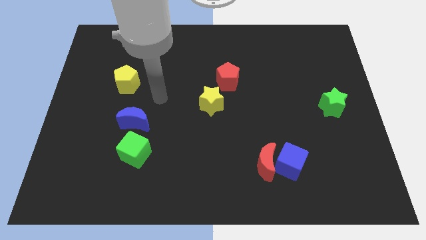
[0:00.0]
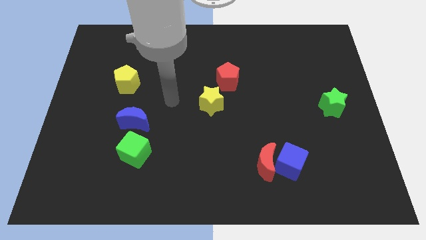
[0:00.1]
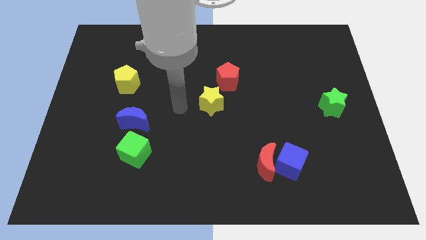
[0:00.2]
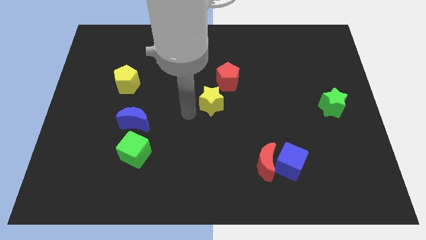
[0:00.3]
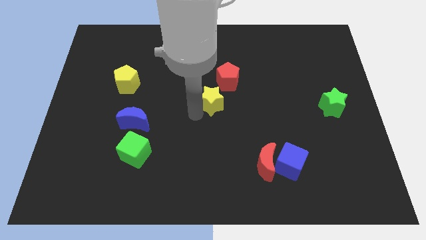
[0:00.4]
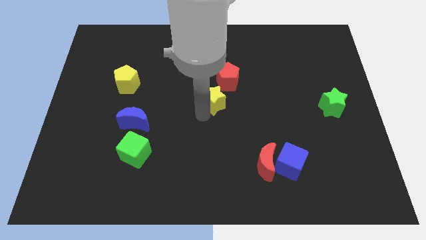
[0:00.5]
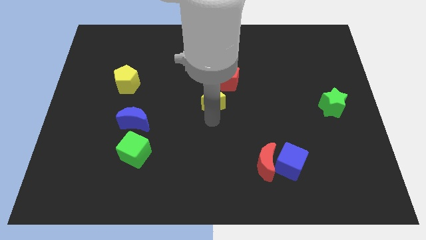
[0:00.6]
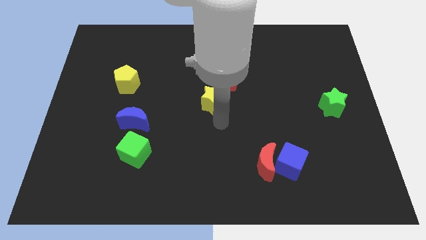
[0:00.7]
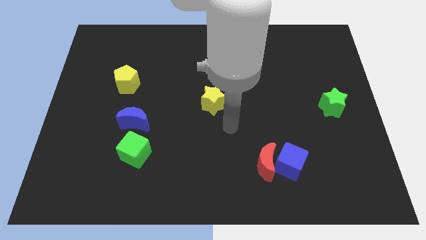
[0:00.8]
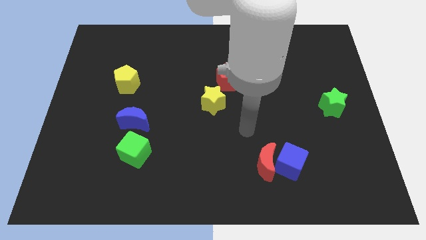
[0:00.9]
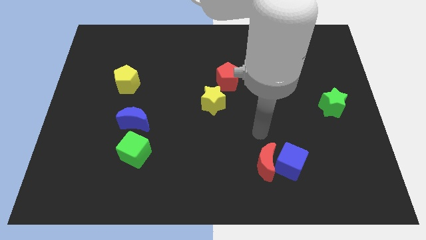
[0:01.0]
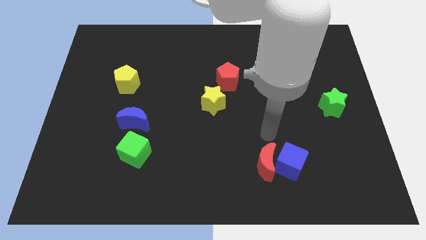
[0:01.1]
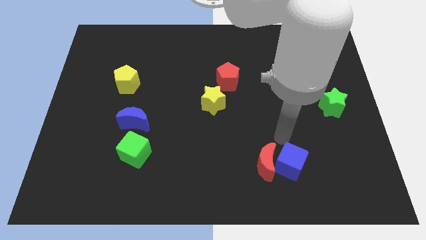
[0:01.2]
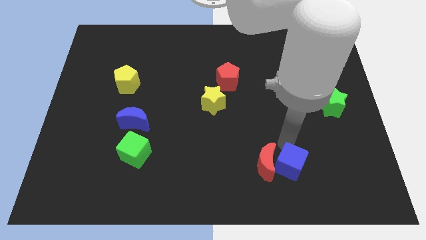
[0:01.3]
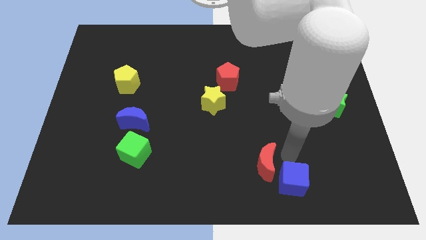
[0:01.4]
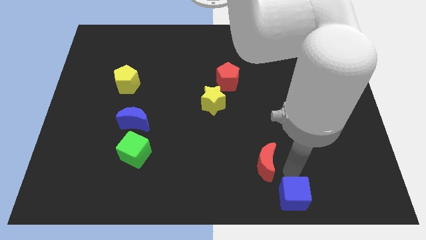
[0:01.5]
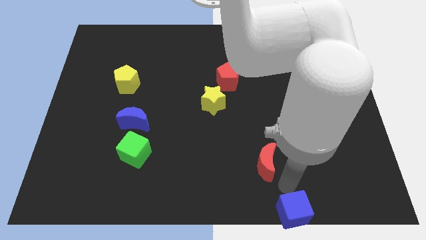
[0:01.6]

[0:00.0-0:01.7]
move the red moon away from the blue cube

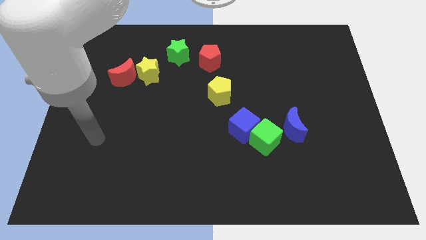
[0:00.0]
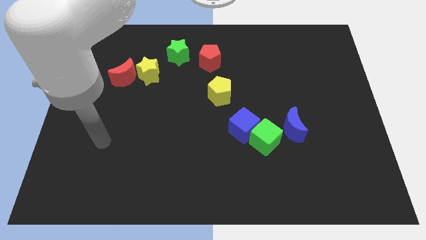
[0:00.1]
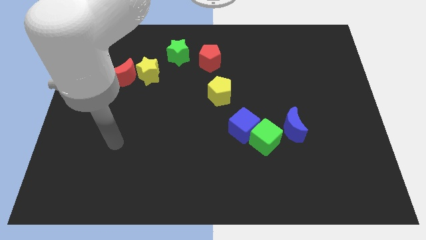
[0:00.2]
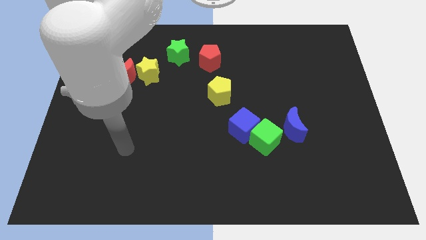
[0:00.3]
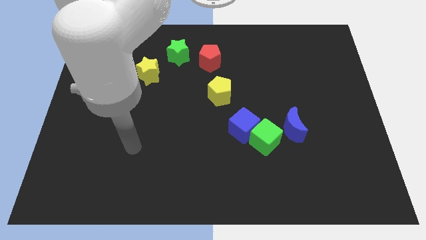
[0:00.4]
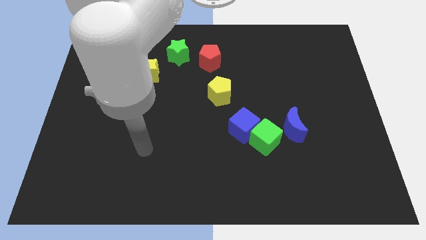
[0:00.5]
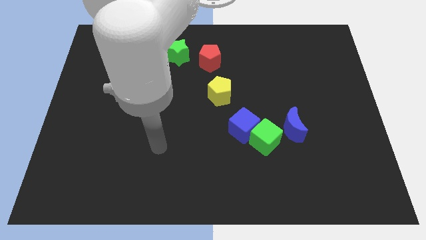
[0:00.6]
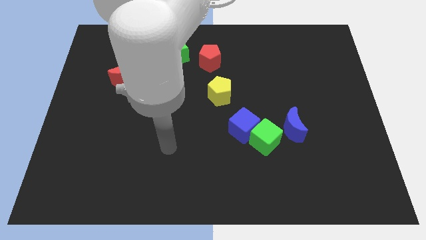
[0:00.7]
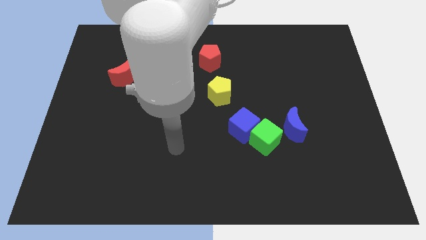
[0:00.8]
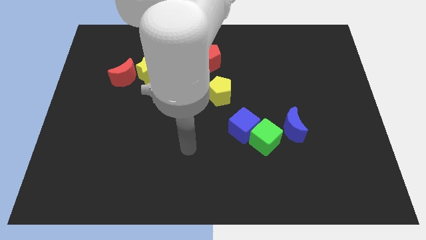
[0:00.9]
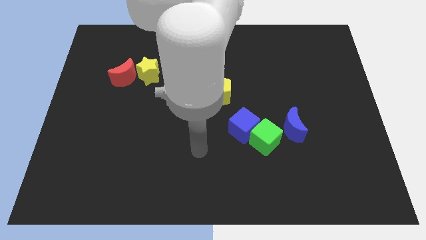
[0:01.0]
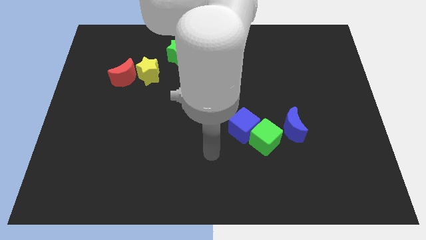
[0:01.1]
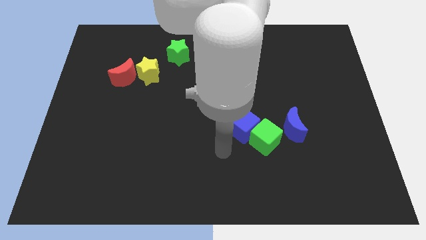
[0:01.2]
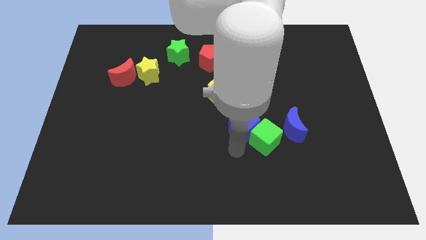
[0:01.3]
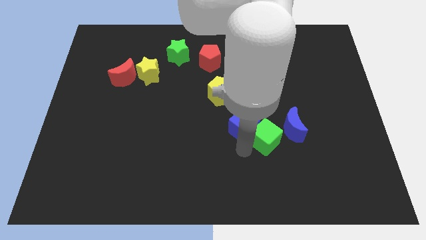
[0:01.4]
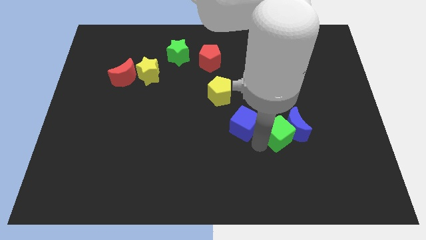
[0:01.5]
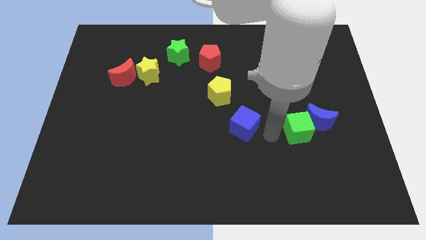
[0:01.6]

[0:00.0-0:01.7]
move the blue cube away from the green cube

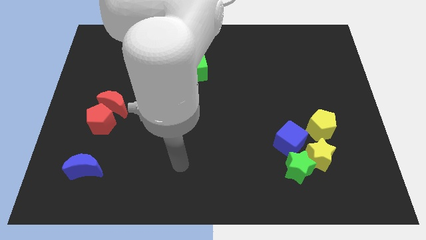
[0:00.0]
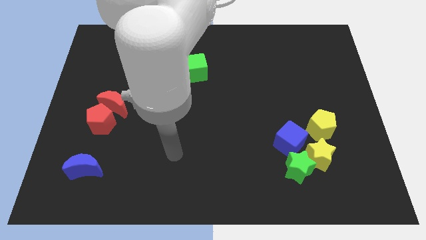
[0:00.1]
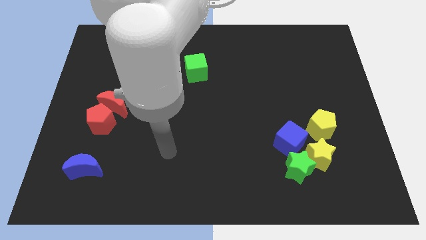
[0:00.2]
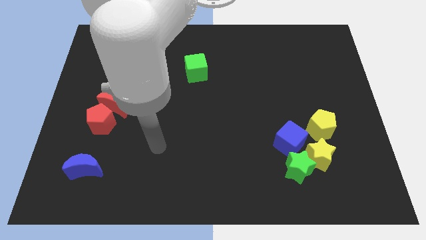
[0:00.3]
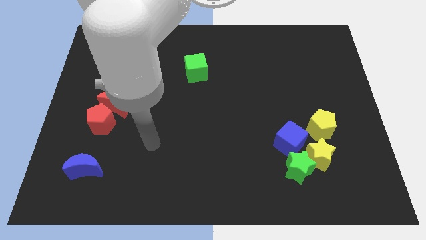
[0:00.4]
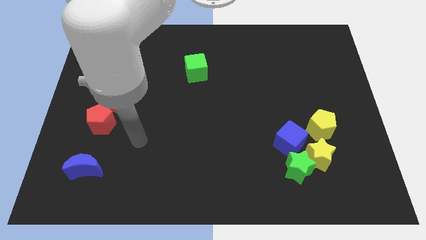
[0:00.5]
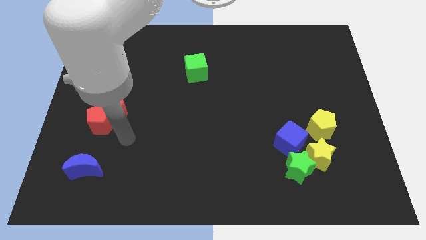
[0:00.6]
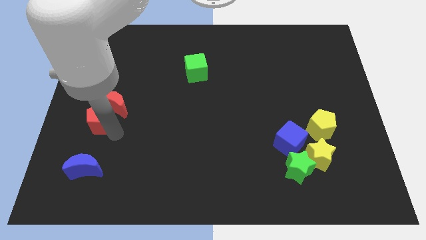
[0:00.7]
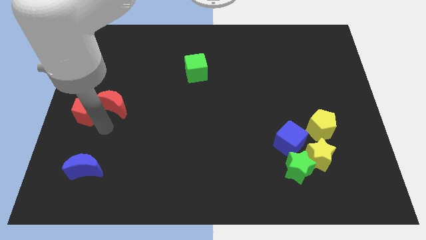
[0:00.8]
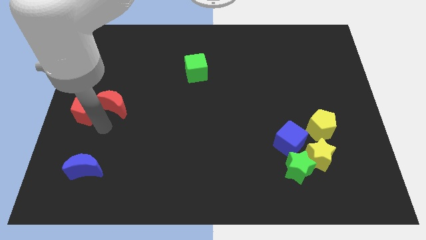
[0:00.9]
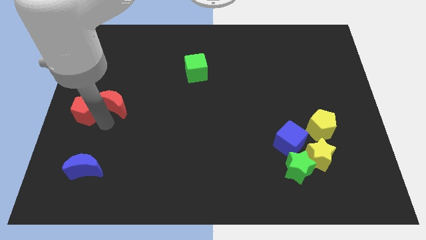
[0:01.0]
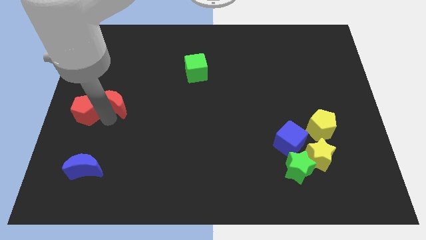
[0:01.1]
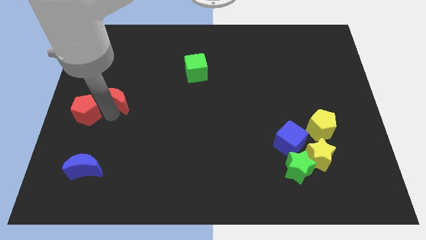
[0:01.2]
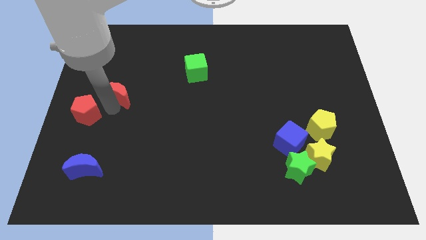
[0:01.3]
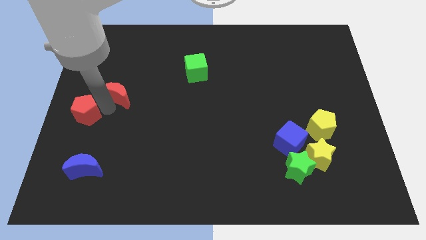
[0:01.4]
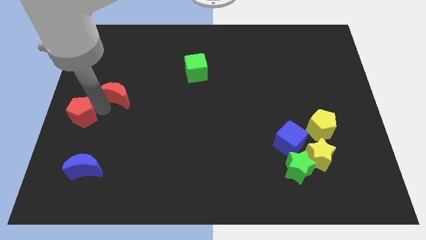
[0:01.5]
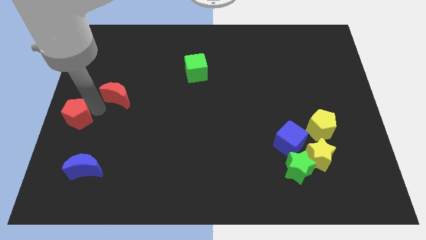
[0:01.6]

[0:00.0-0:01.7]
move the red moon away from the red pentagon

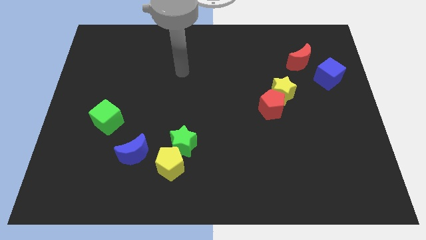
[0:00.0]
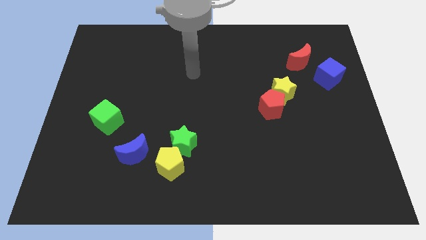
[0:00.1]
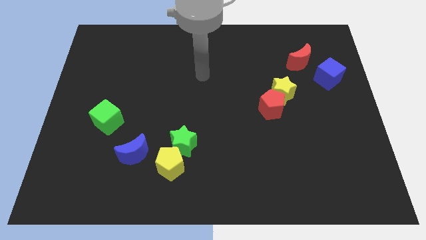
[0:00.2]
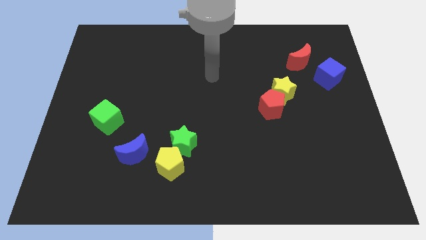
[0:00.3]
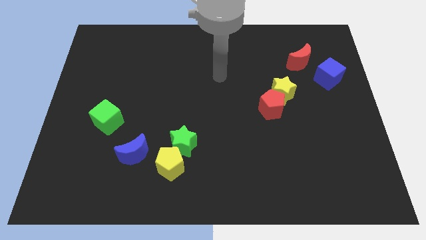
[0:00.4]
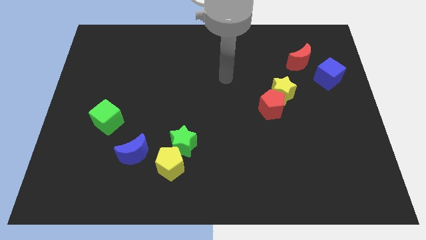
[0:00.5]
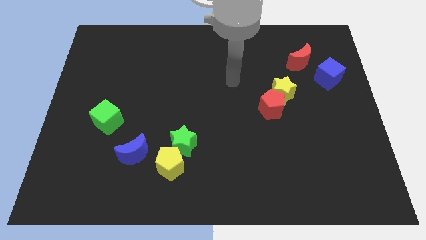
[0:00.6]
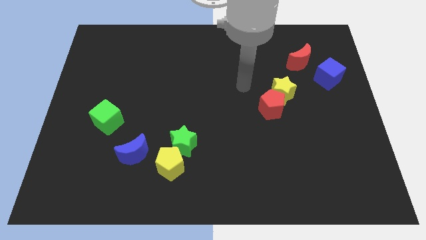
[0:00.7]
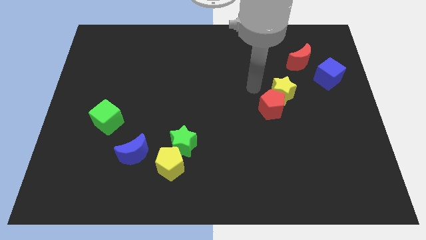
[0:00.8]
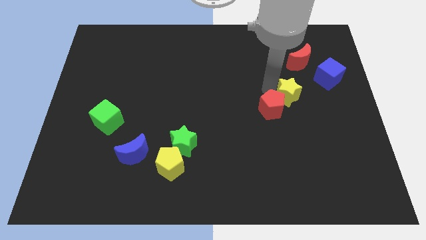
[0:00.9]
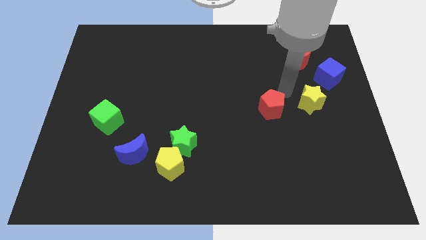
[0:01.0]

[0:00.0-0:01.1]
separate the red pentagon from the yellow star

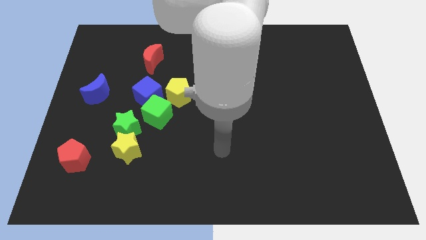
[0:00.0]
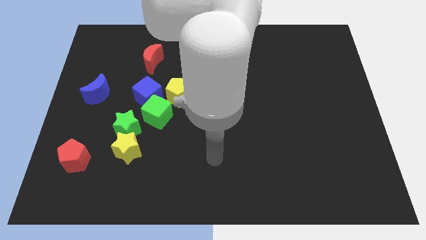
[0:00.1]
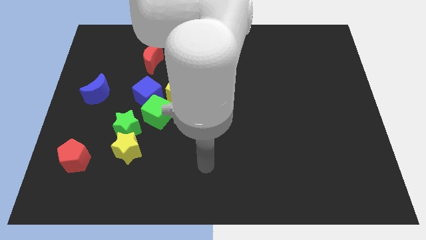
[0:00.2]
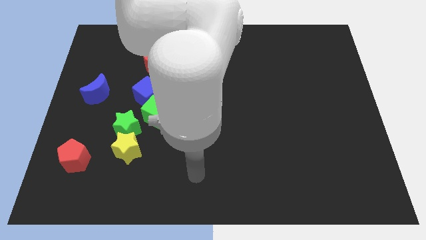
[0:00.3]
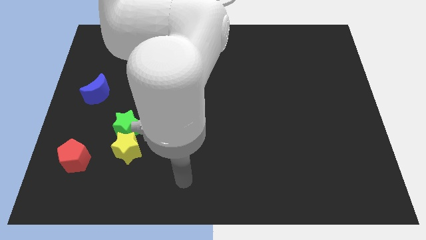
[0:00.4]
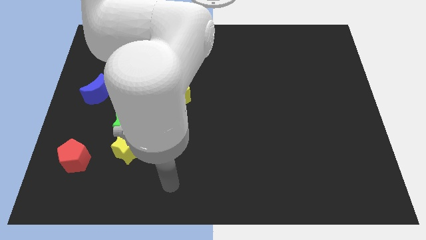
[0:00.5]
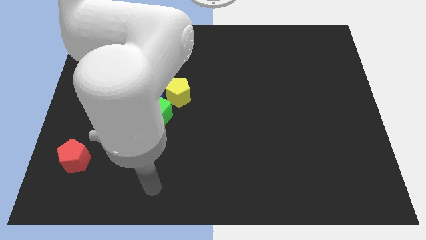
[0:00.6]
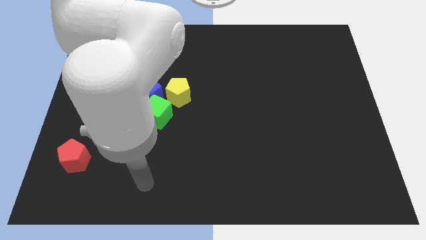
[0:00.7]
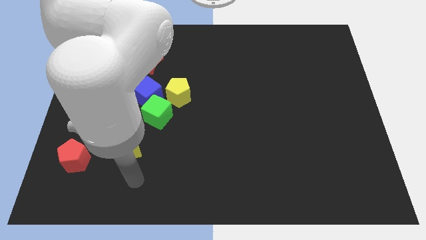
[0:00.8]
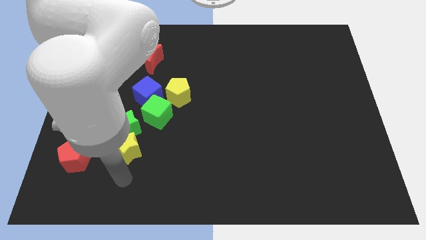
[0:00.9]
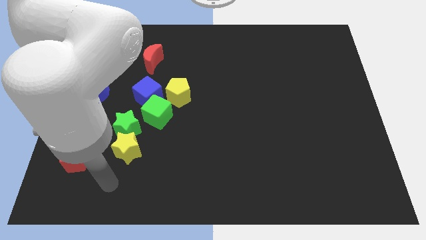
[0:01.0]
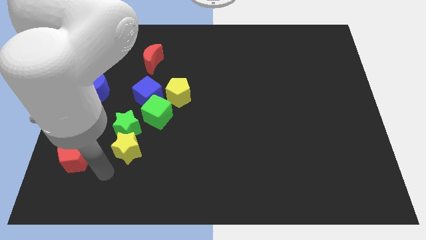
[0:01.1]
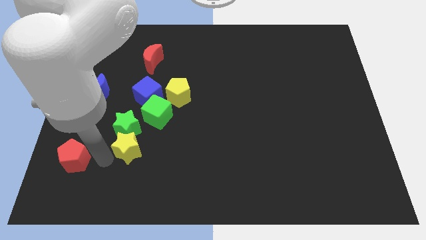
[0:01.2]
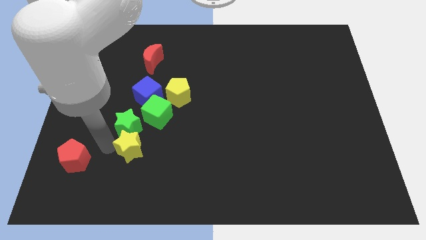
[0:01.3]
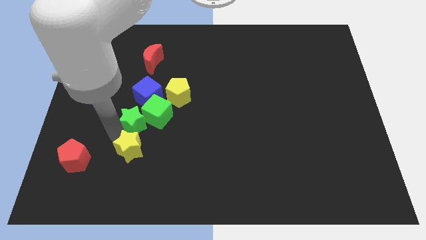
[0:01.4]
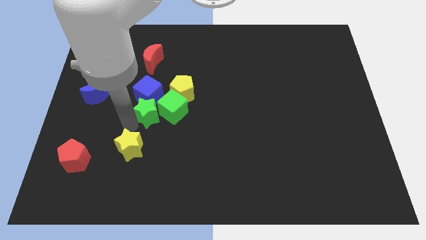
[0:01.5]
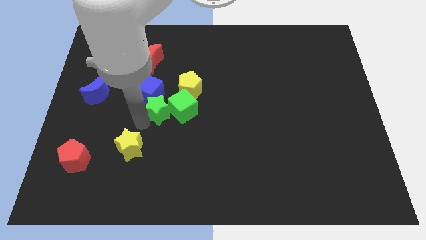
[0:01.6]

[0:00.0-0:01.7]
pull the yellow star apart from the green star

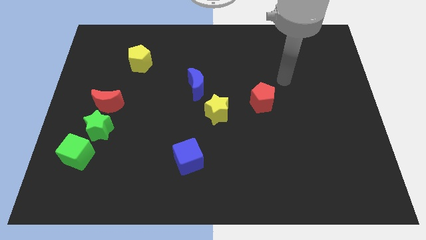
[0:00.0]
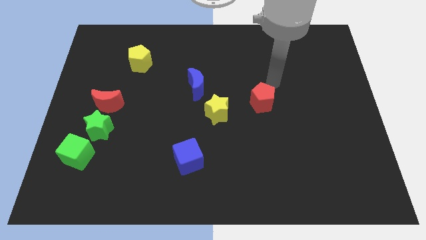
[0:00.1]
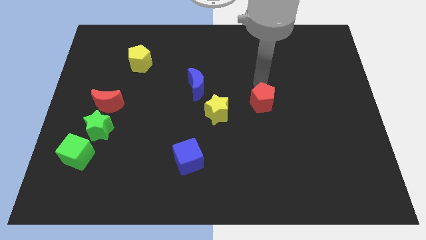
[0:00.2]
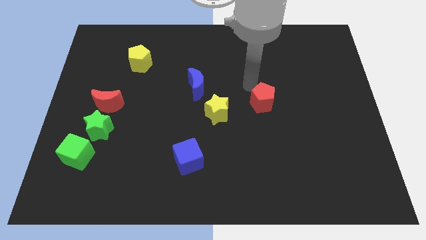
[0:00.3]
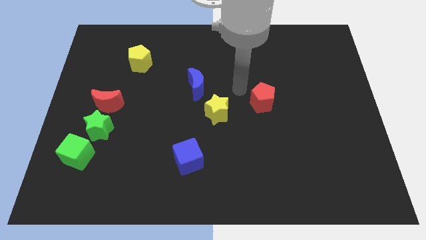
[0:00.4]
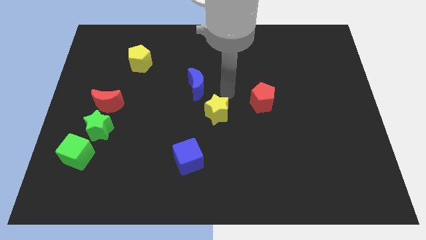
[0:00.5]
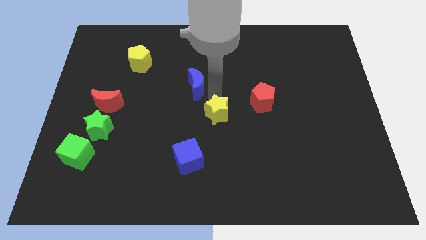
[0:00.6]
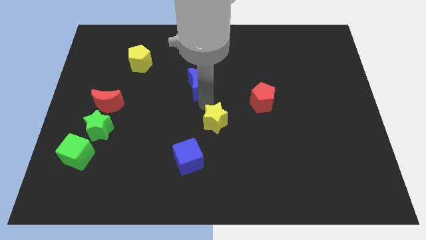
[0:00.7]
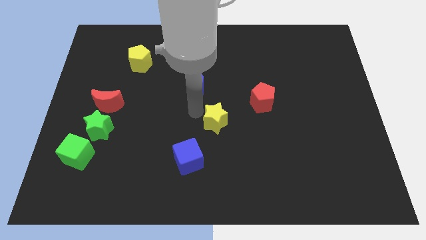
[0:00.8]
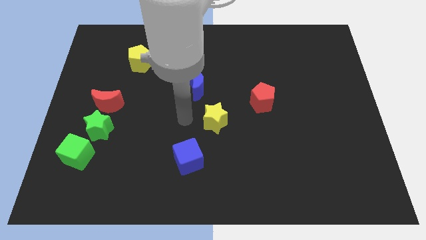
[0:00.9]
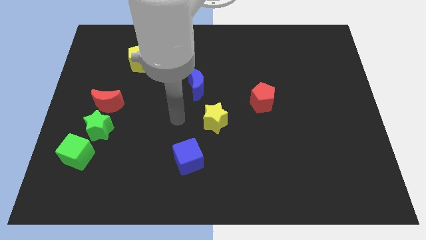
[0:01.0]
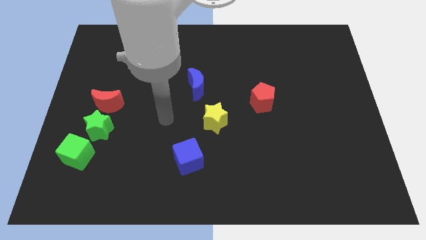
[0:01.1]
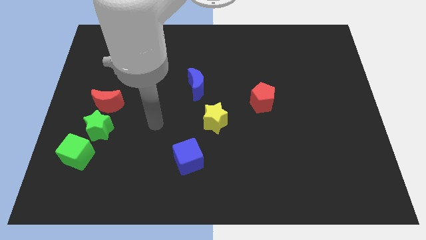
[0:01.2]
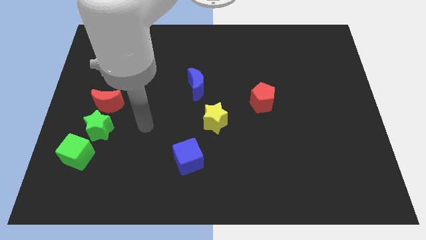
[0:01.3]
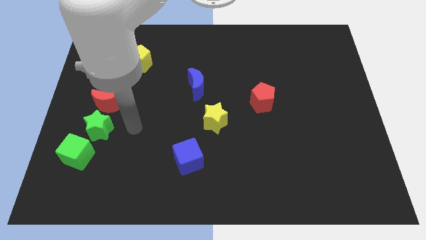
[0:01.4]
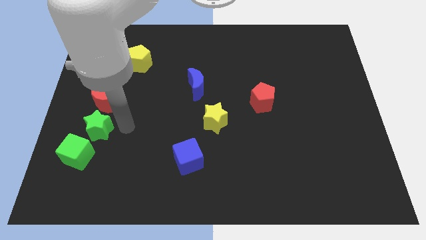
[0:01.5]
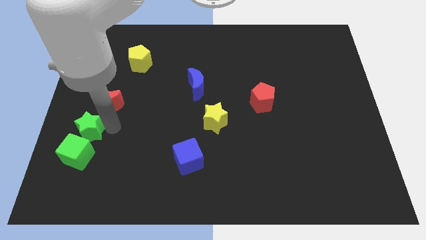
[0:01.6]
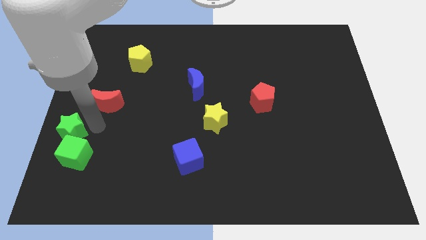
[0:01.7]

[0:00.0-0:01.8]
separate the red moon from the green star
